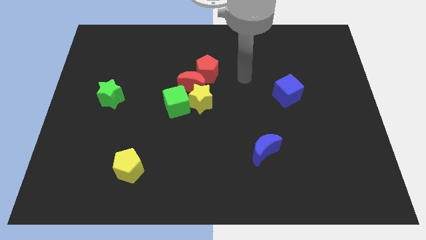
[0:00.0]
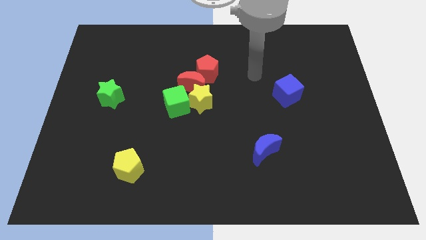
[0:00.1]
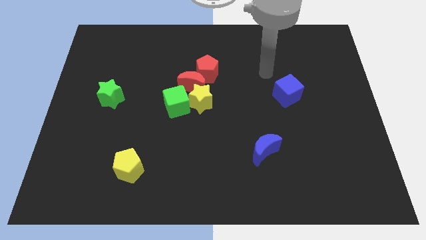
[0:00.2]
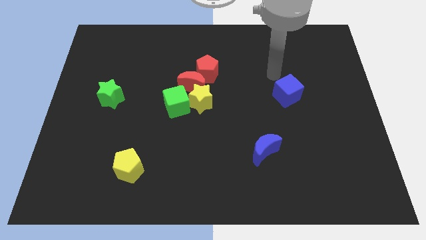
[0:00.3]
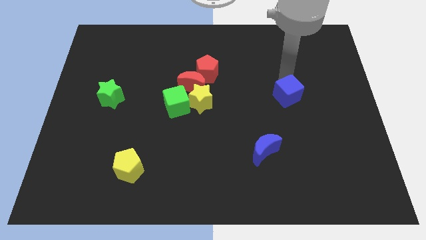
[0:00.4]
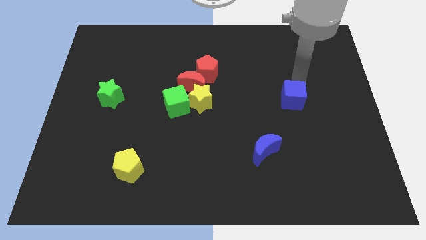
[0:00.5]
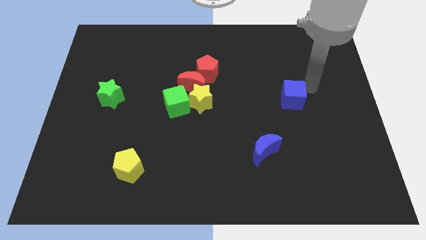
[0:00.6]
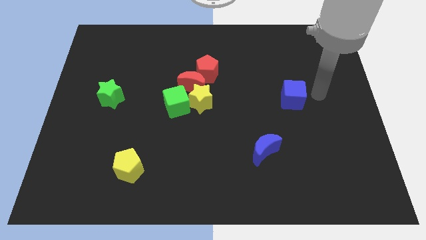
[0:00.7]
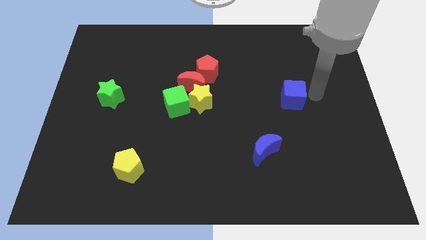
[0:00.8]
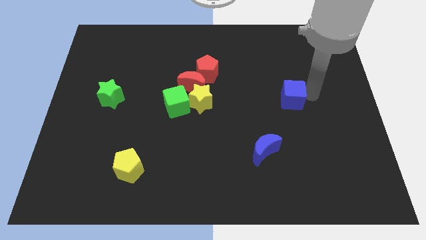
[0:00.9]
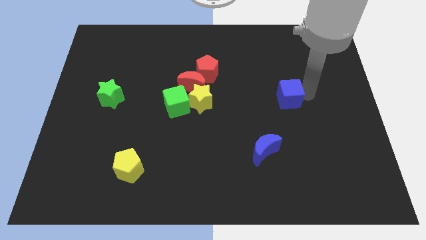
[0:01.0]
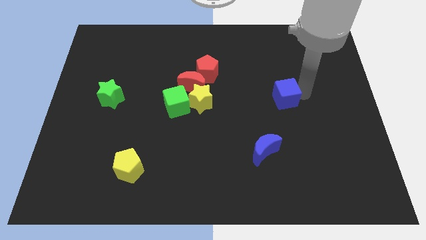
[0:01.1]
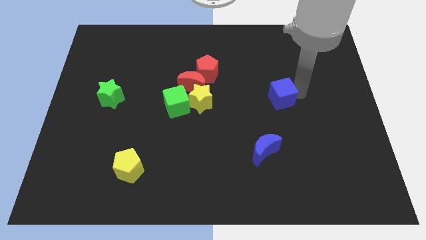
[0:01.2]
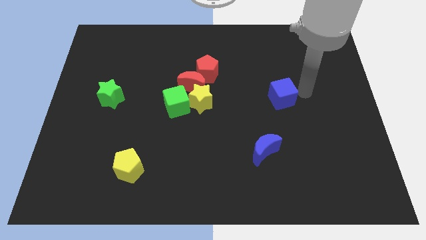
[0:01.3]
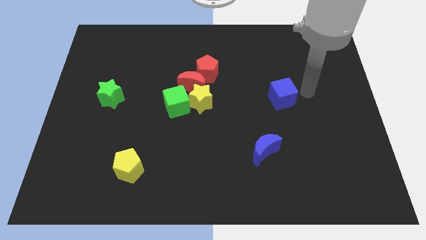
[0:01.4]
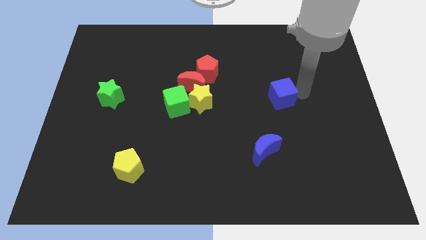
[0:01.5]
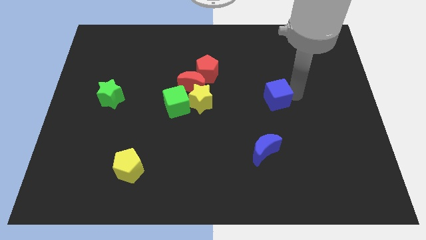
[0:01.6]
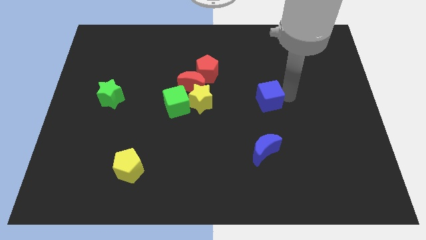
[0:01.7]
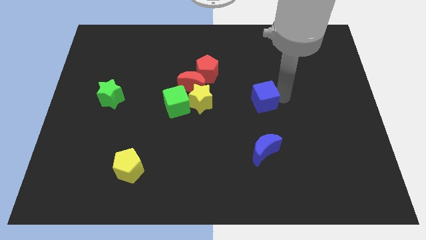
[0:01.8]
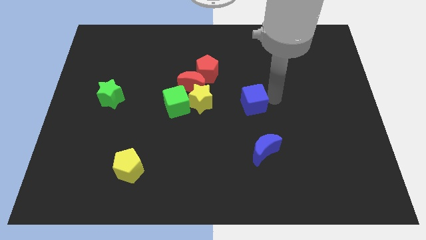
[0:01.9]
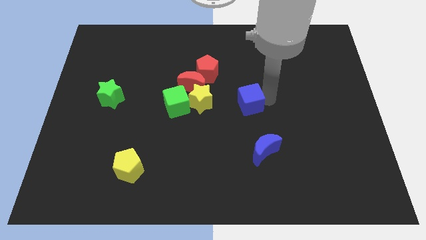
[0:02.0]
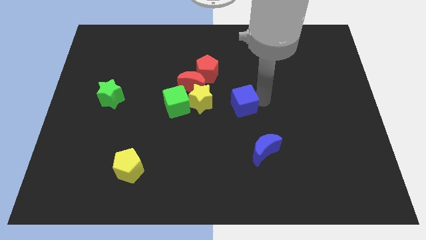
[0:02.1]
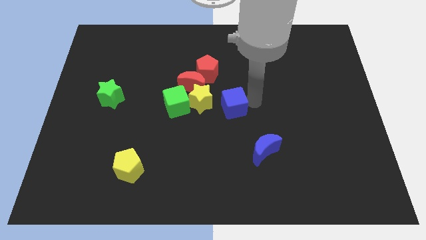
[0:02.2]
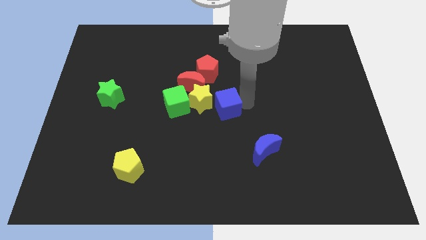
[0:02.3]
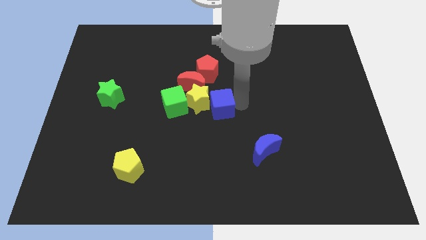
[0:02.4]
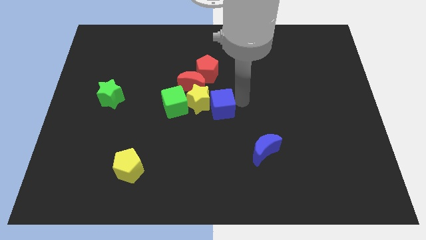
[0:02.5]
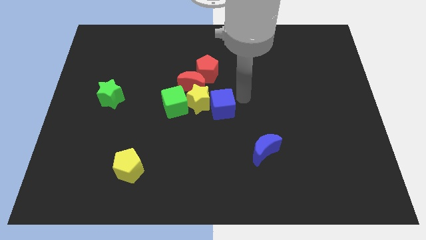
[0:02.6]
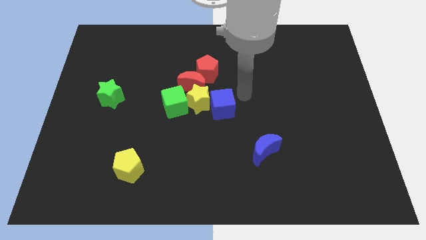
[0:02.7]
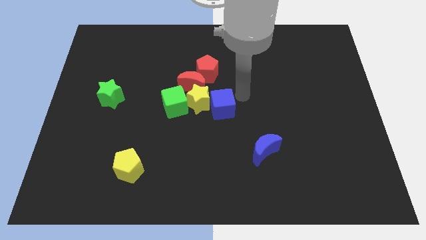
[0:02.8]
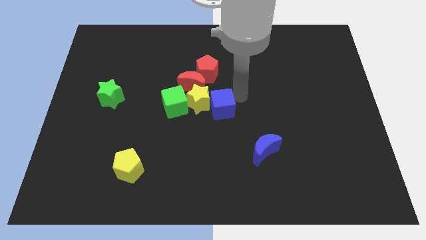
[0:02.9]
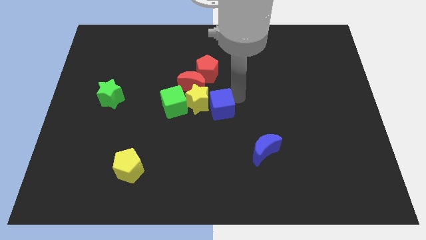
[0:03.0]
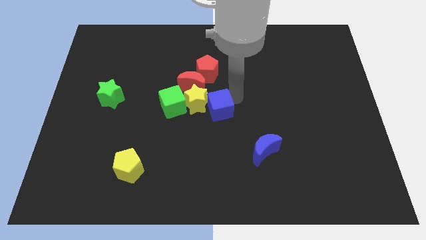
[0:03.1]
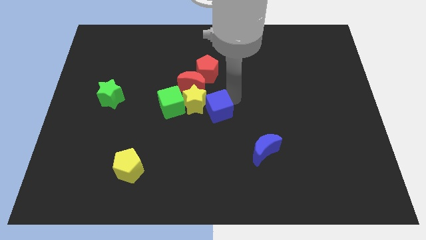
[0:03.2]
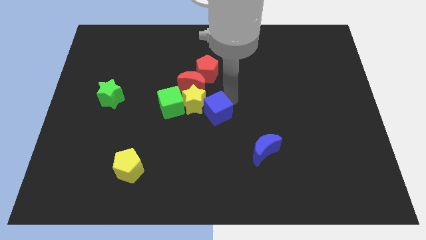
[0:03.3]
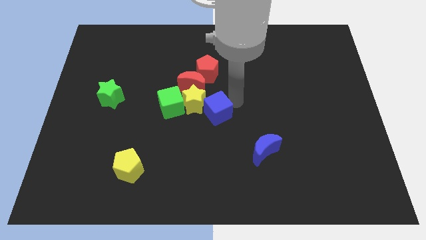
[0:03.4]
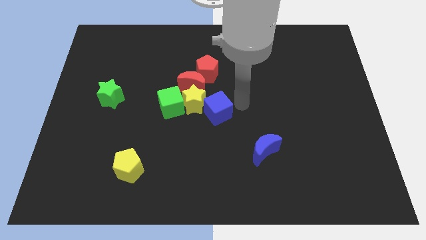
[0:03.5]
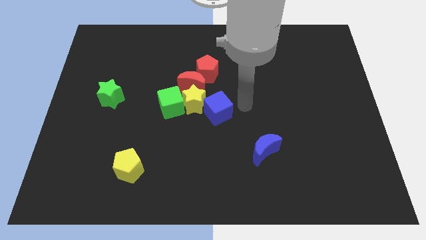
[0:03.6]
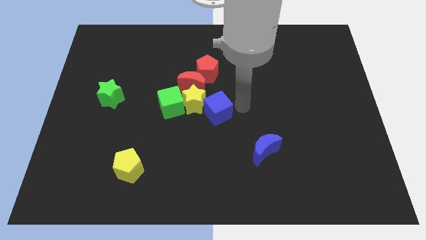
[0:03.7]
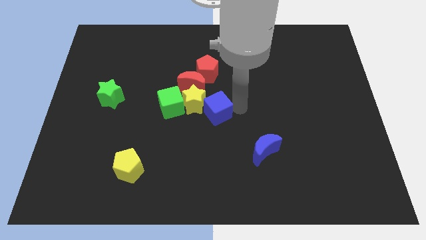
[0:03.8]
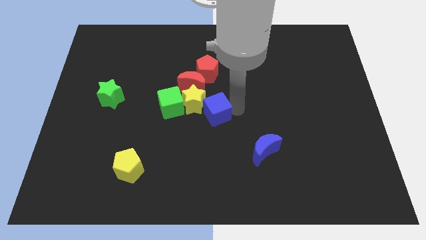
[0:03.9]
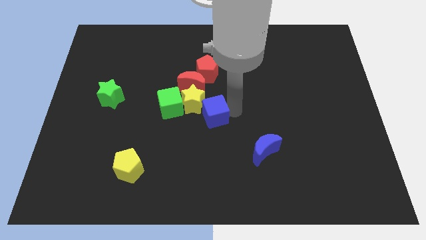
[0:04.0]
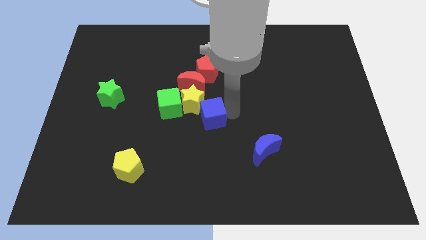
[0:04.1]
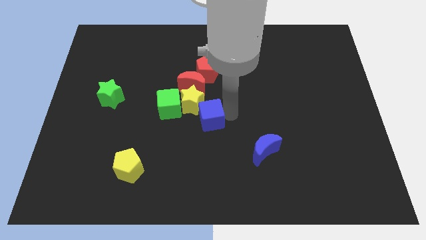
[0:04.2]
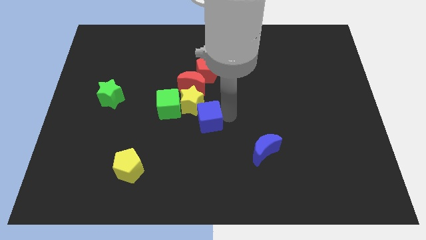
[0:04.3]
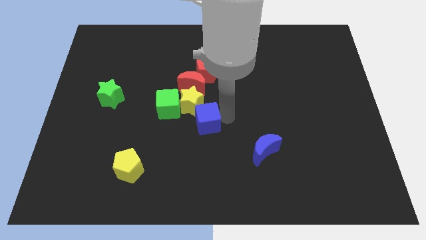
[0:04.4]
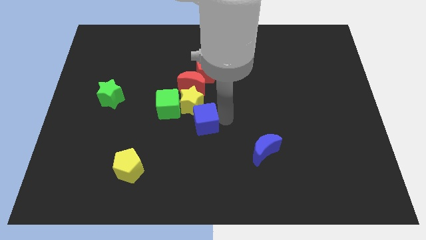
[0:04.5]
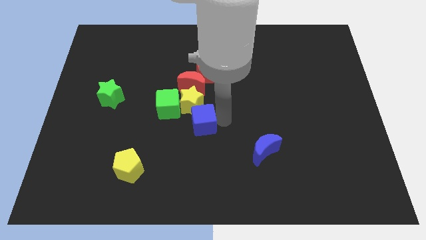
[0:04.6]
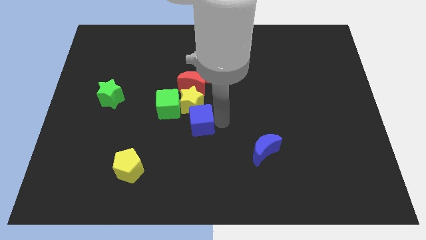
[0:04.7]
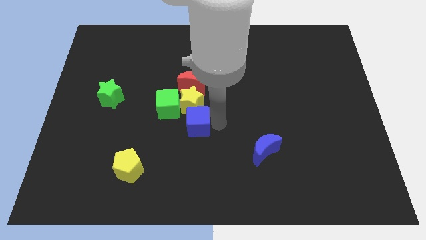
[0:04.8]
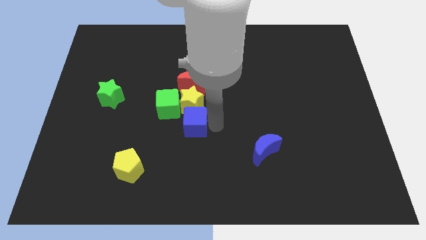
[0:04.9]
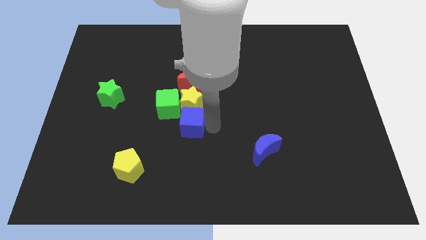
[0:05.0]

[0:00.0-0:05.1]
put the blue cube to the bottom left side of the yellow star

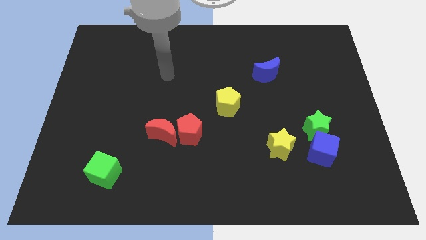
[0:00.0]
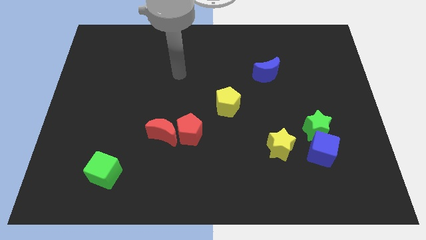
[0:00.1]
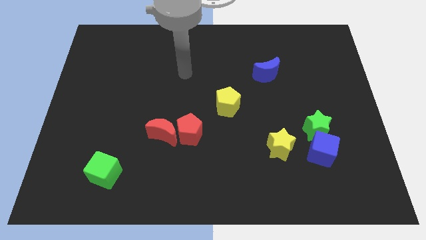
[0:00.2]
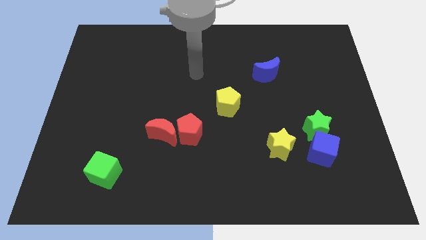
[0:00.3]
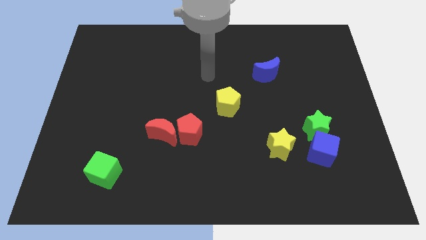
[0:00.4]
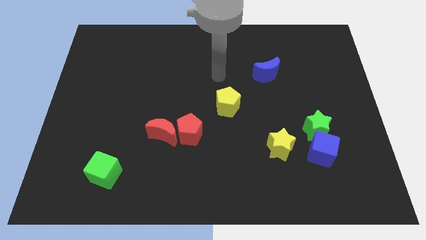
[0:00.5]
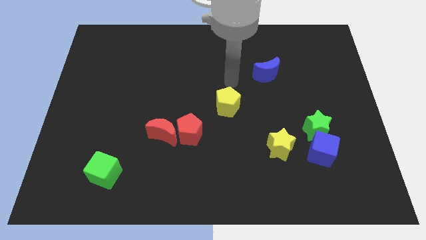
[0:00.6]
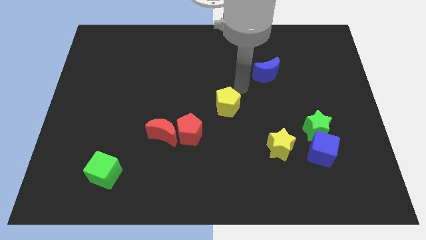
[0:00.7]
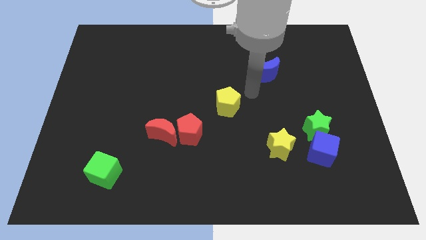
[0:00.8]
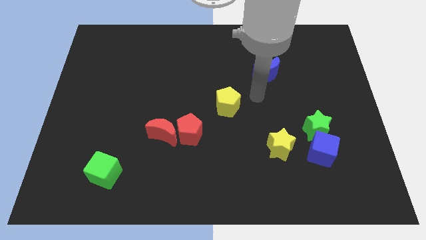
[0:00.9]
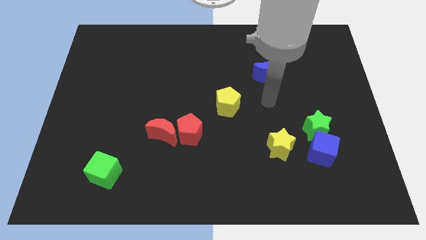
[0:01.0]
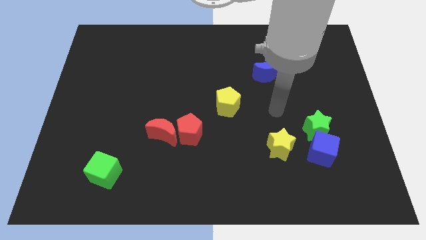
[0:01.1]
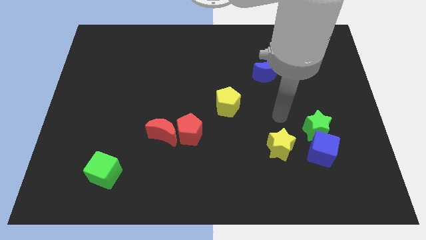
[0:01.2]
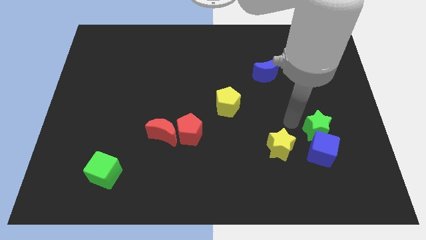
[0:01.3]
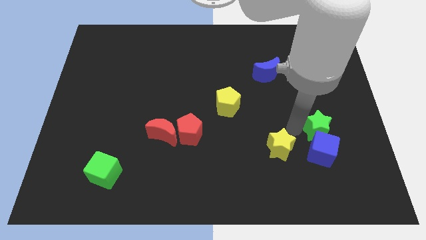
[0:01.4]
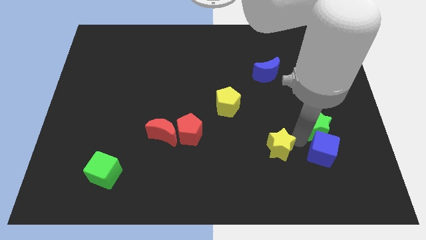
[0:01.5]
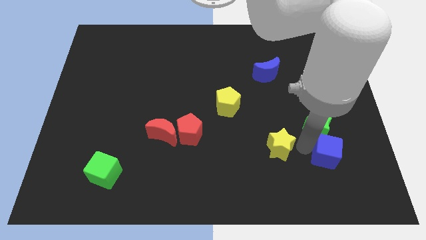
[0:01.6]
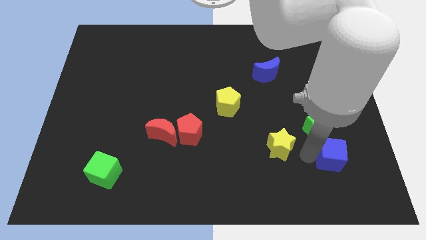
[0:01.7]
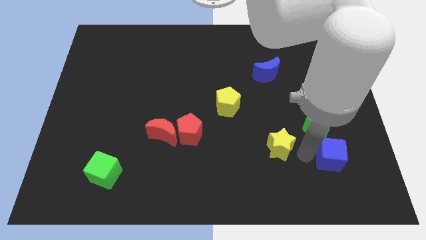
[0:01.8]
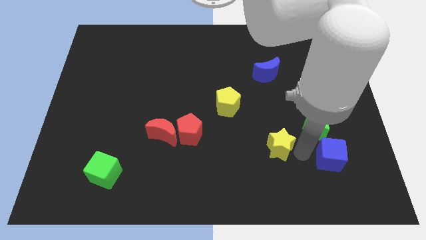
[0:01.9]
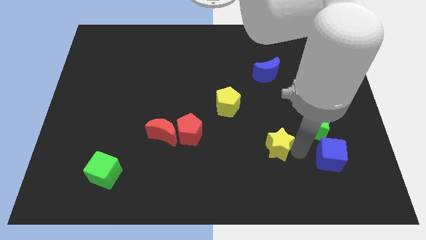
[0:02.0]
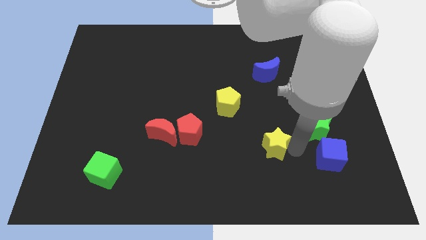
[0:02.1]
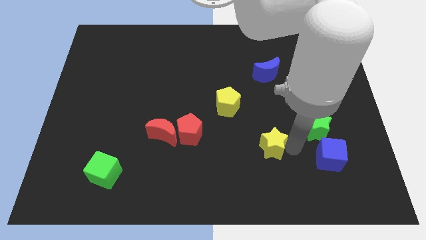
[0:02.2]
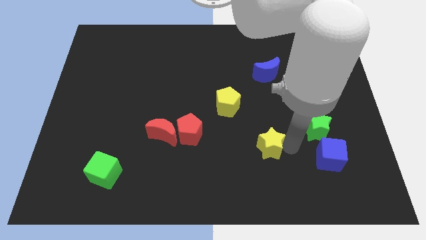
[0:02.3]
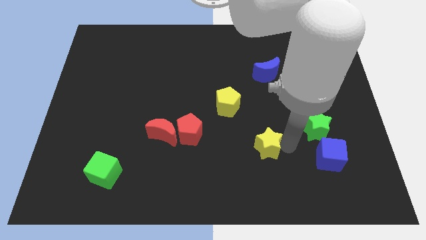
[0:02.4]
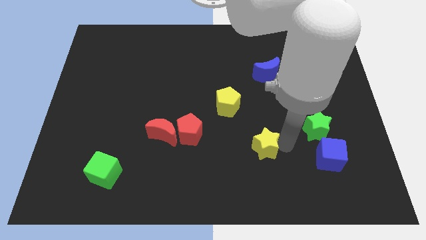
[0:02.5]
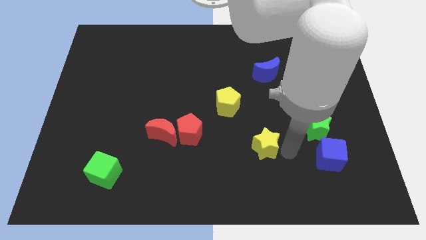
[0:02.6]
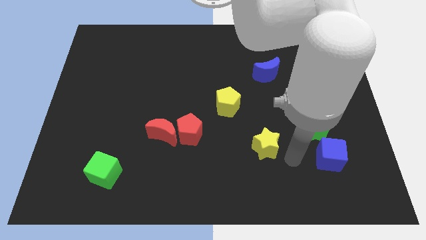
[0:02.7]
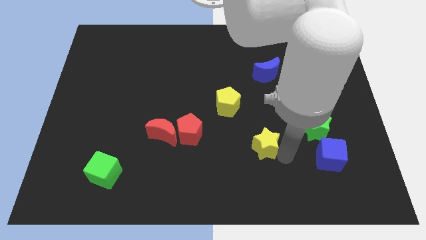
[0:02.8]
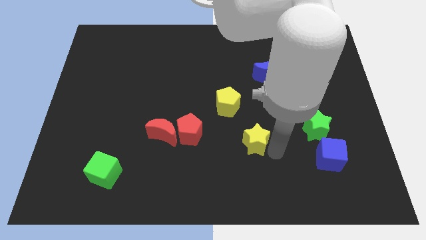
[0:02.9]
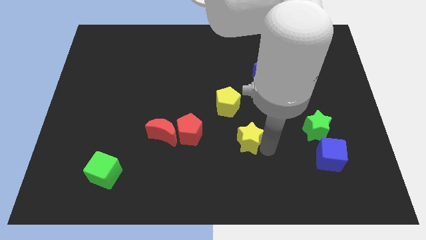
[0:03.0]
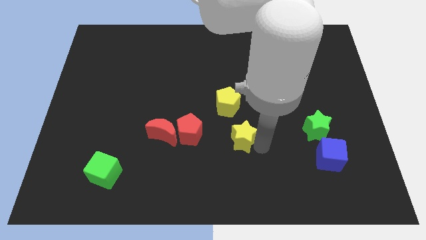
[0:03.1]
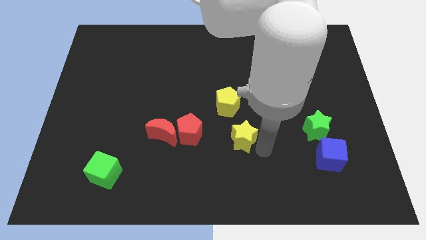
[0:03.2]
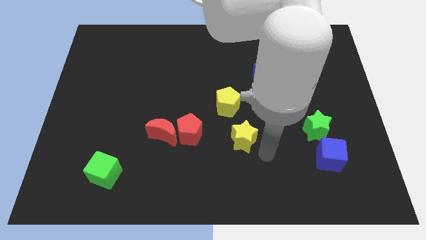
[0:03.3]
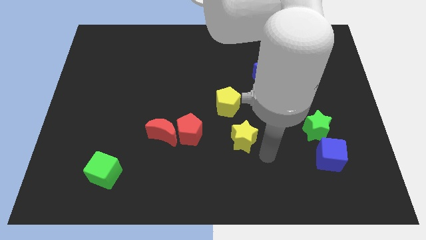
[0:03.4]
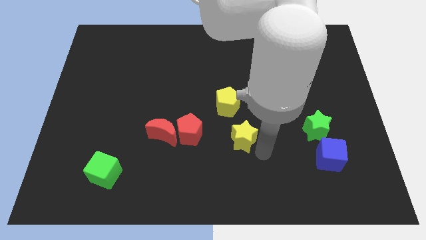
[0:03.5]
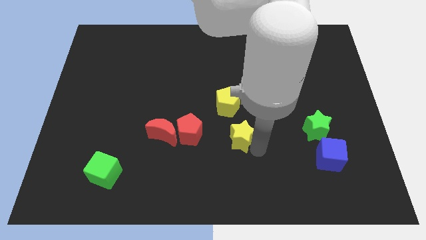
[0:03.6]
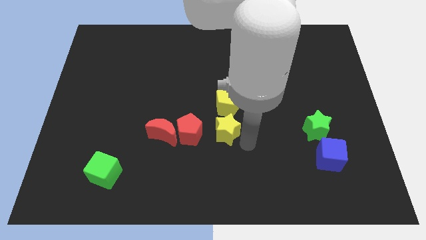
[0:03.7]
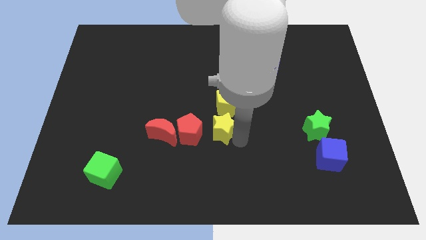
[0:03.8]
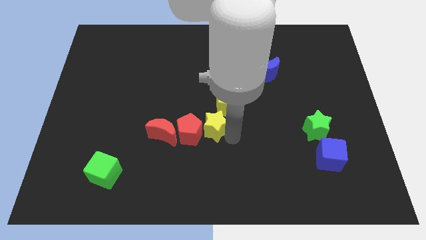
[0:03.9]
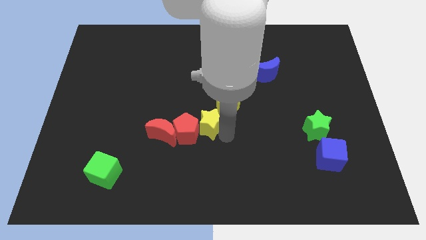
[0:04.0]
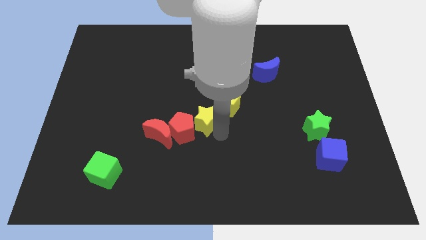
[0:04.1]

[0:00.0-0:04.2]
push the yellow star just left of the yellow pentagon
